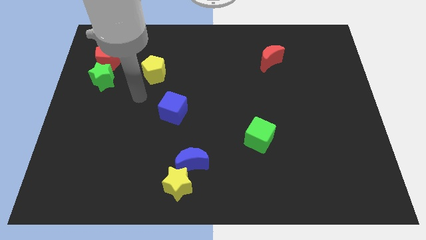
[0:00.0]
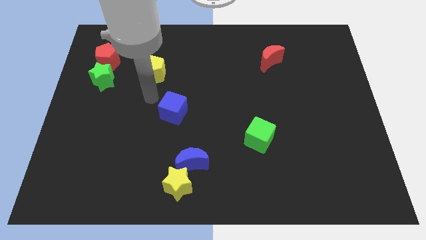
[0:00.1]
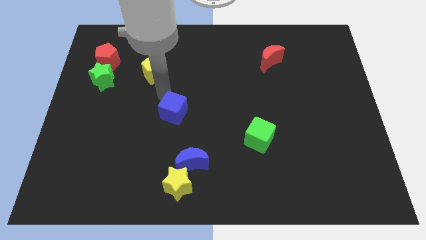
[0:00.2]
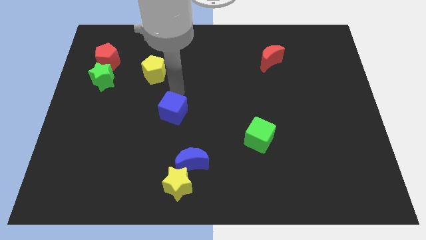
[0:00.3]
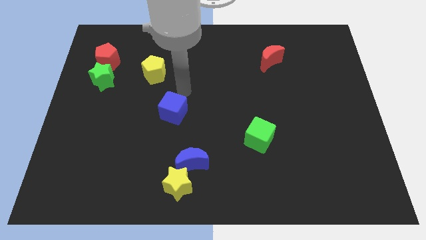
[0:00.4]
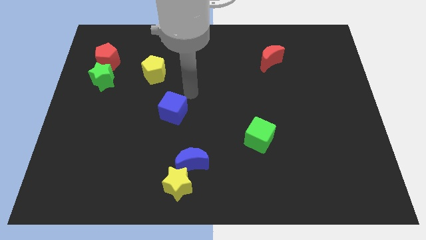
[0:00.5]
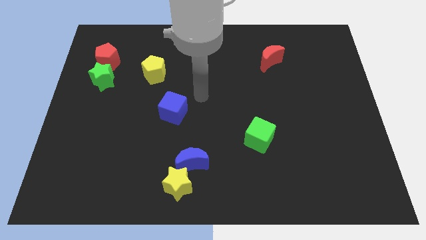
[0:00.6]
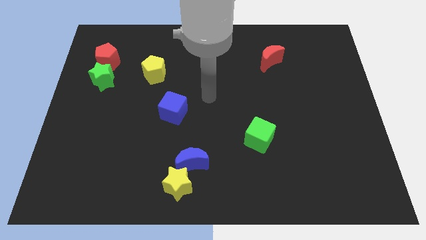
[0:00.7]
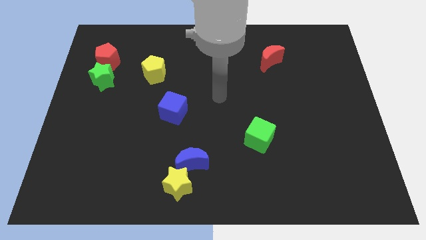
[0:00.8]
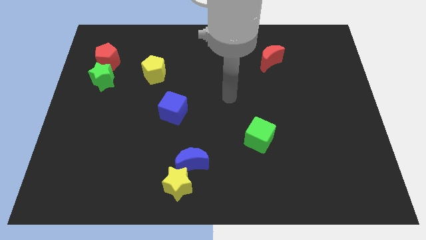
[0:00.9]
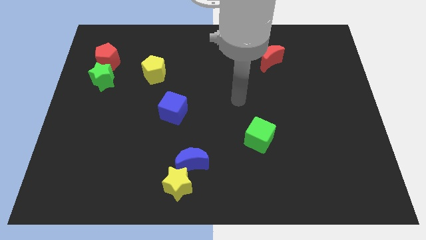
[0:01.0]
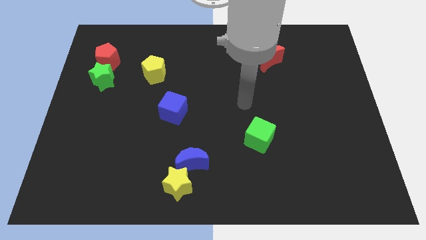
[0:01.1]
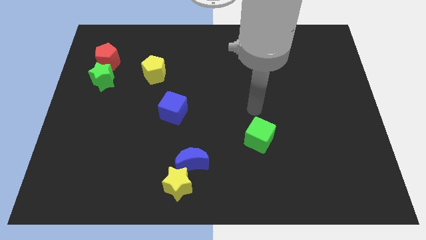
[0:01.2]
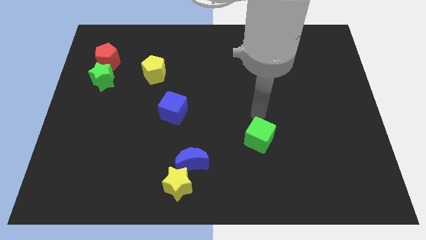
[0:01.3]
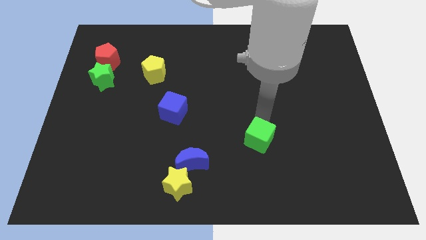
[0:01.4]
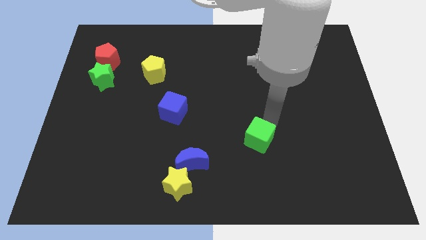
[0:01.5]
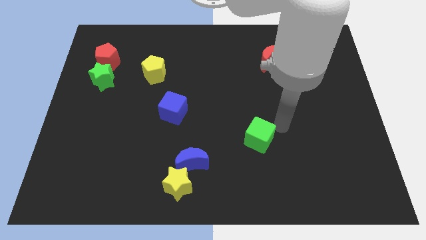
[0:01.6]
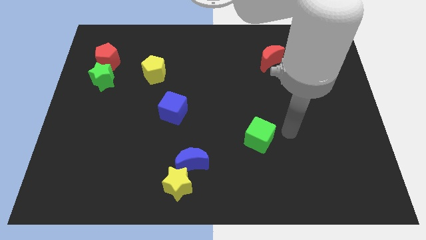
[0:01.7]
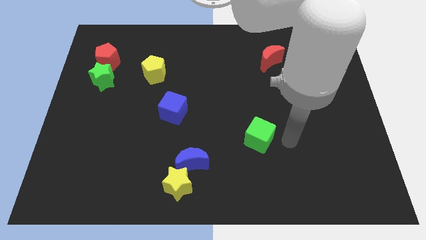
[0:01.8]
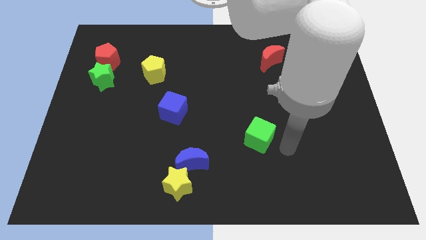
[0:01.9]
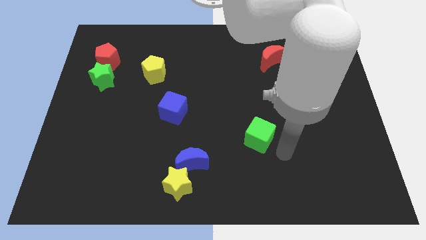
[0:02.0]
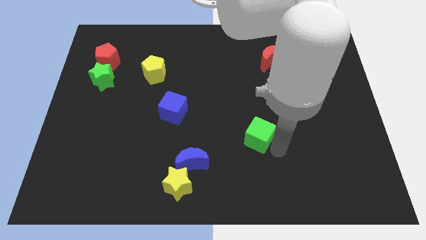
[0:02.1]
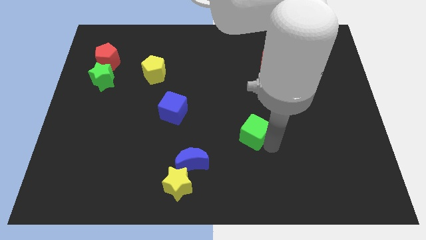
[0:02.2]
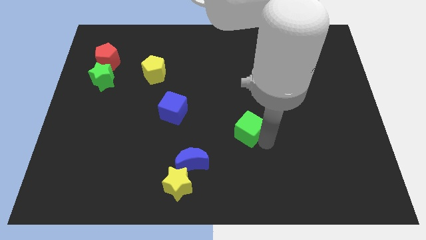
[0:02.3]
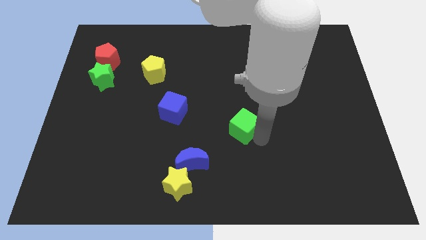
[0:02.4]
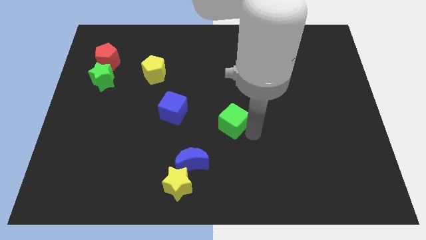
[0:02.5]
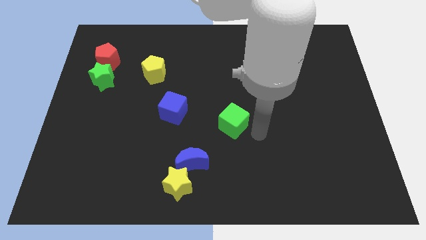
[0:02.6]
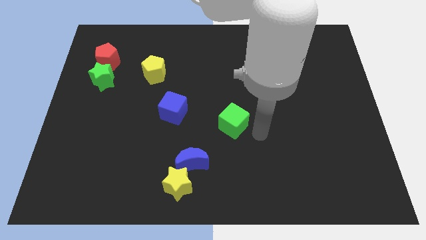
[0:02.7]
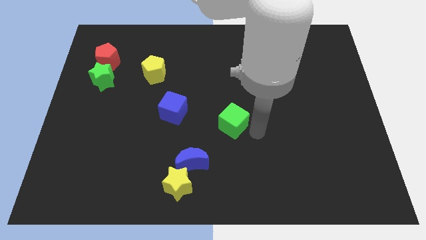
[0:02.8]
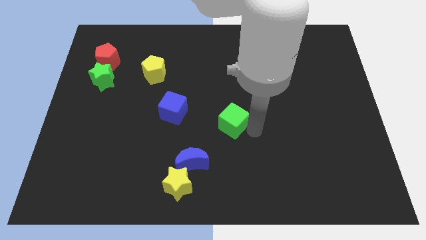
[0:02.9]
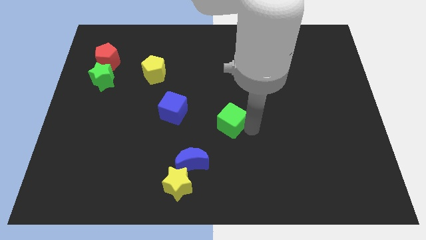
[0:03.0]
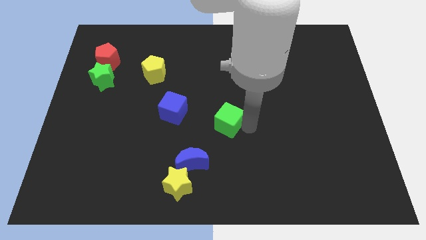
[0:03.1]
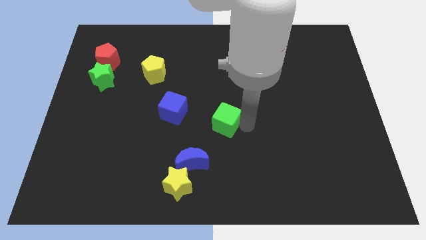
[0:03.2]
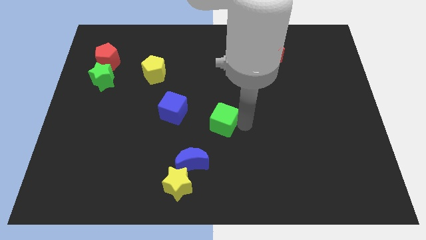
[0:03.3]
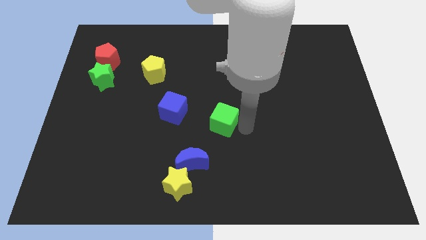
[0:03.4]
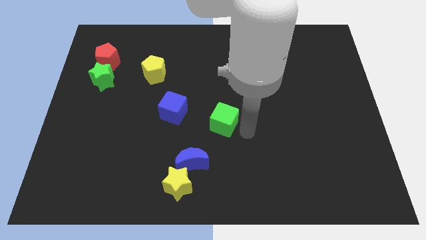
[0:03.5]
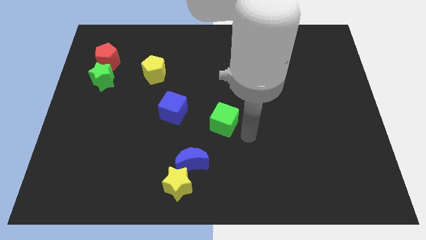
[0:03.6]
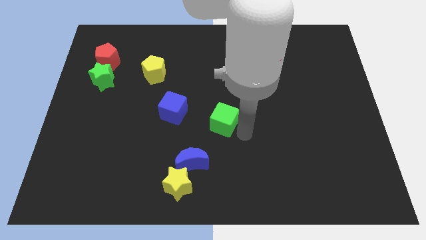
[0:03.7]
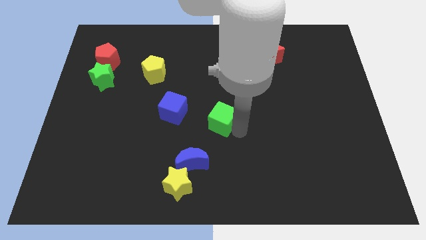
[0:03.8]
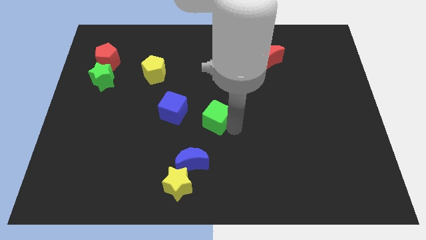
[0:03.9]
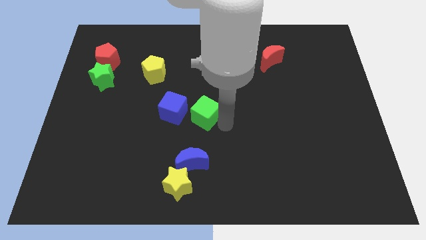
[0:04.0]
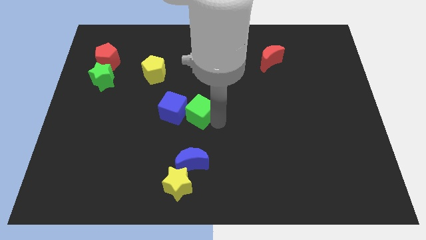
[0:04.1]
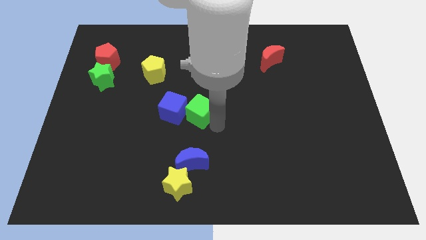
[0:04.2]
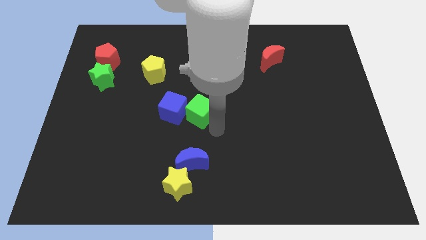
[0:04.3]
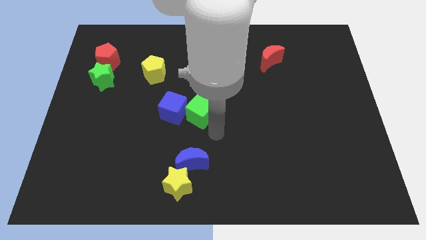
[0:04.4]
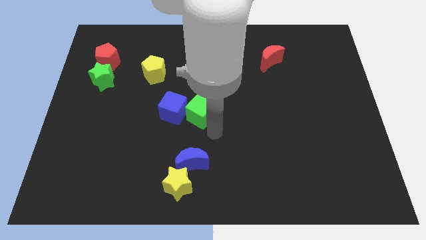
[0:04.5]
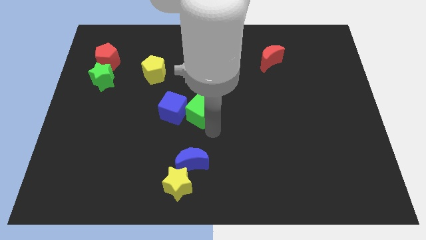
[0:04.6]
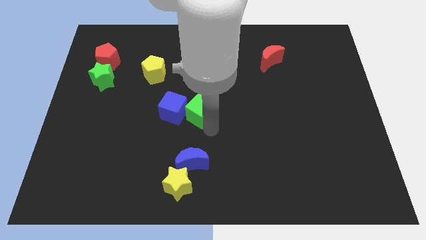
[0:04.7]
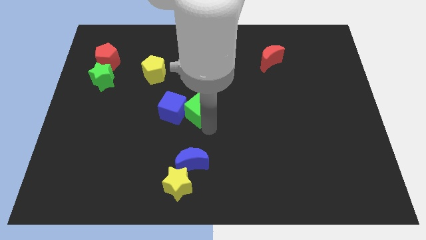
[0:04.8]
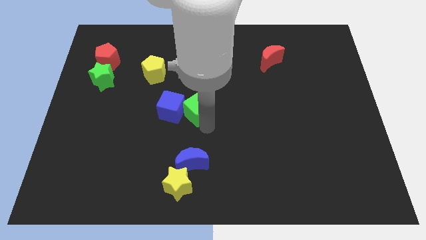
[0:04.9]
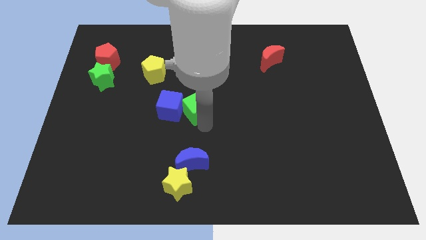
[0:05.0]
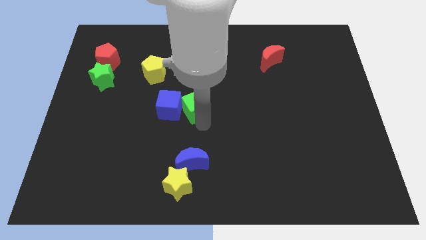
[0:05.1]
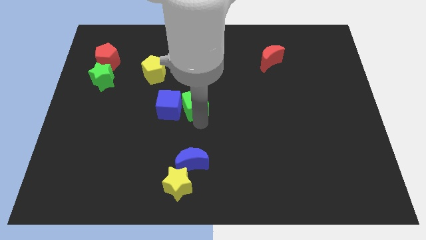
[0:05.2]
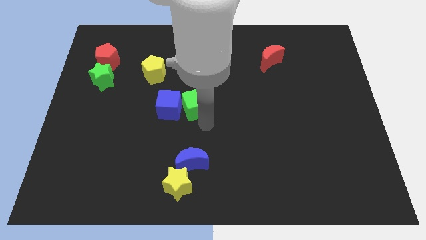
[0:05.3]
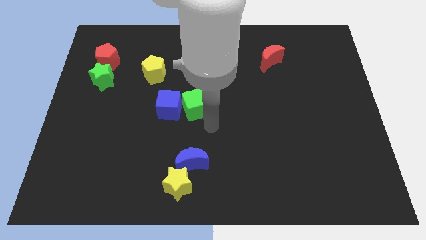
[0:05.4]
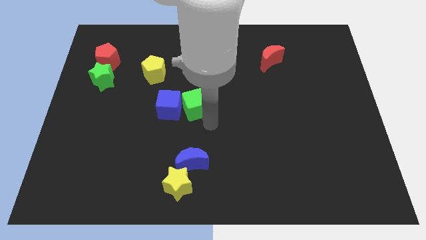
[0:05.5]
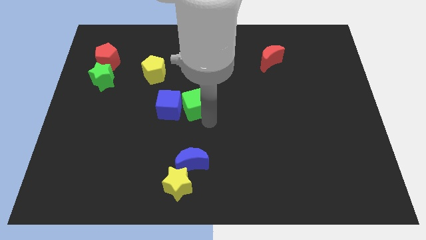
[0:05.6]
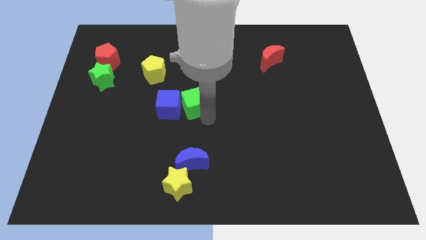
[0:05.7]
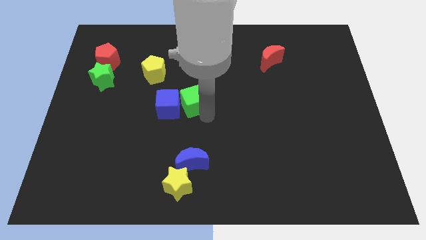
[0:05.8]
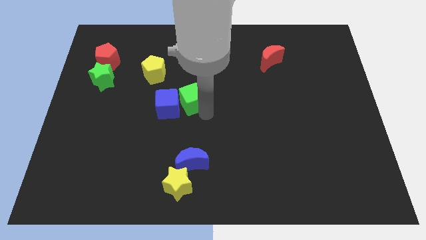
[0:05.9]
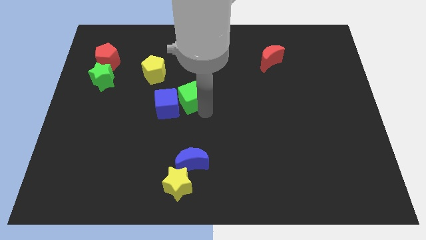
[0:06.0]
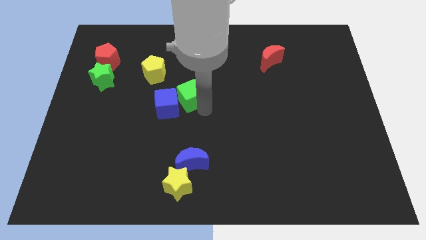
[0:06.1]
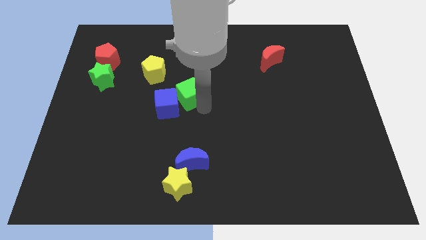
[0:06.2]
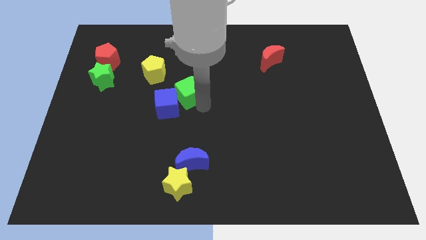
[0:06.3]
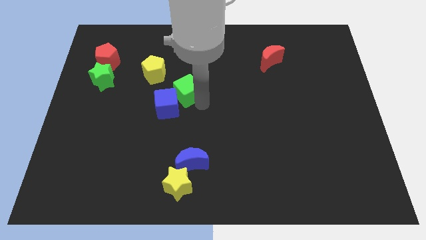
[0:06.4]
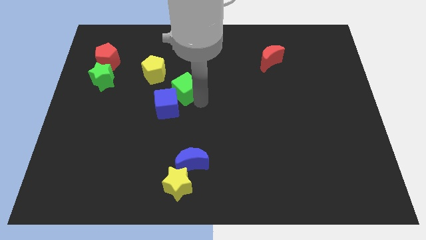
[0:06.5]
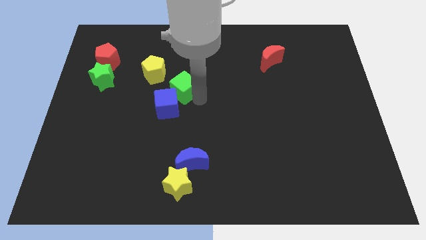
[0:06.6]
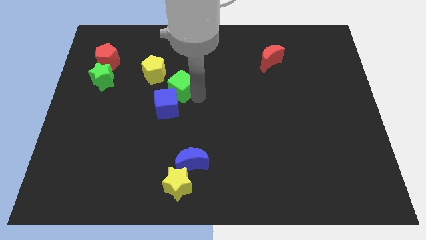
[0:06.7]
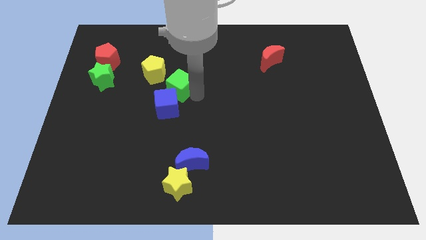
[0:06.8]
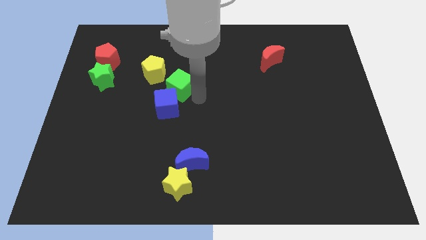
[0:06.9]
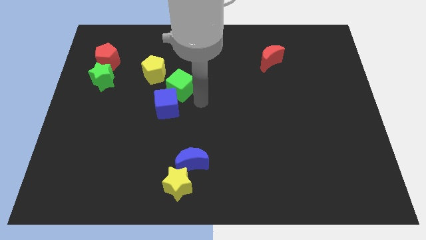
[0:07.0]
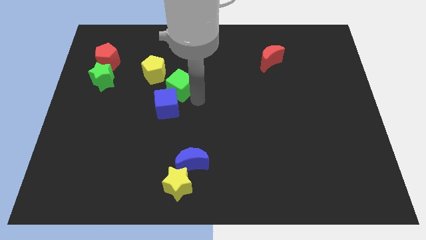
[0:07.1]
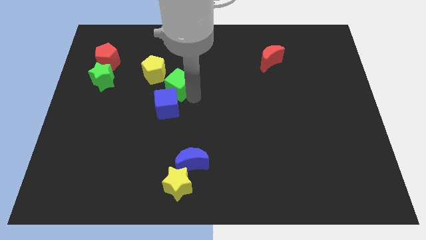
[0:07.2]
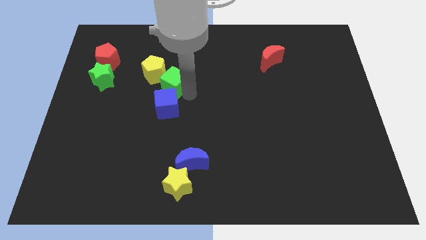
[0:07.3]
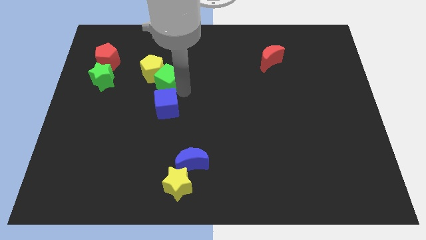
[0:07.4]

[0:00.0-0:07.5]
put the green cube close to the yellow pentagon

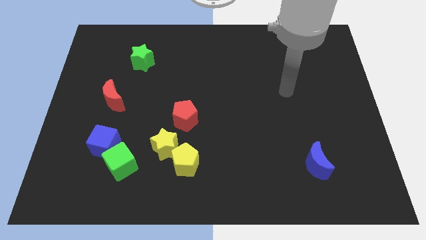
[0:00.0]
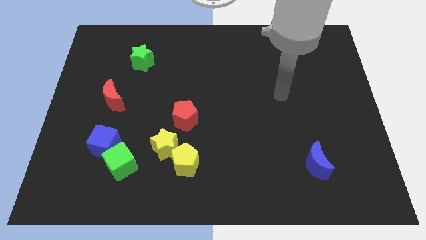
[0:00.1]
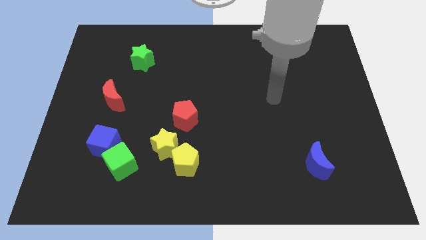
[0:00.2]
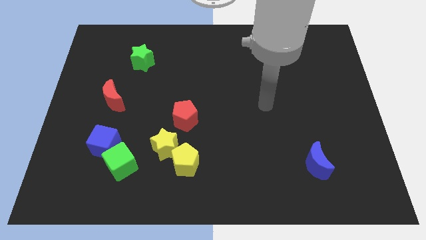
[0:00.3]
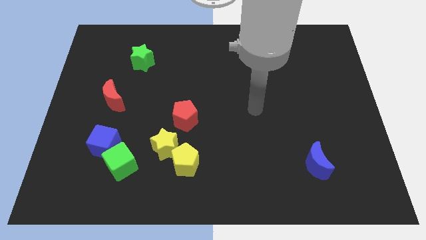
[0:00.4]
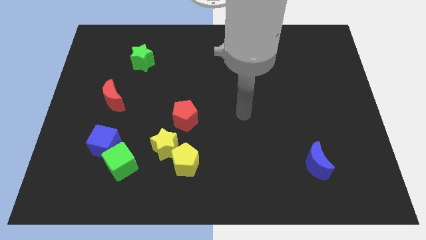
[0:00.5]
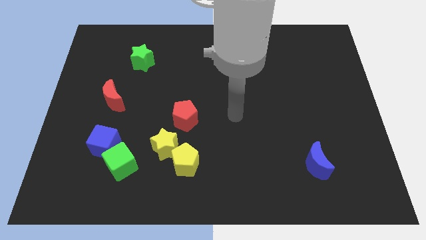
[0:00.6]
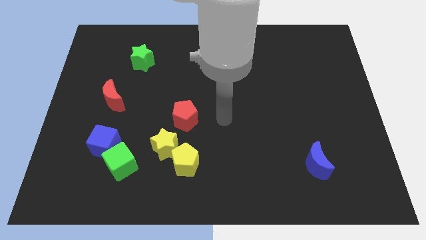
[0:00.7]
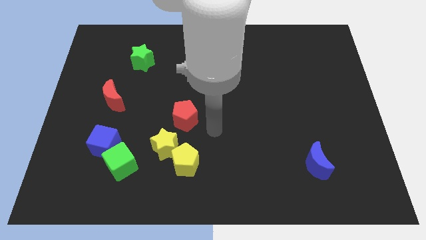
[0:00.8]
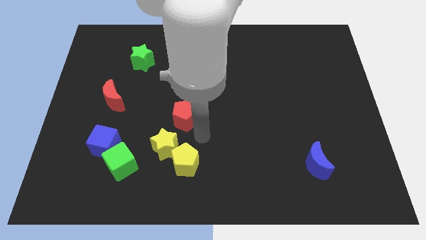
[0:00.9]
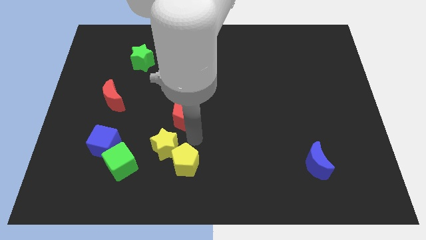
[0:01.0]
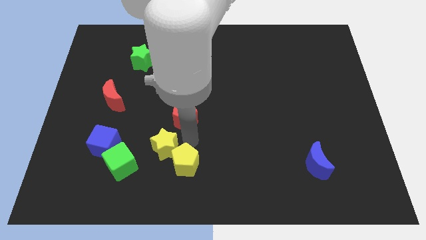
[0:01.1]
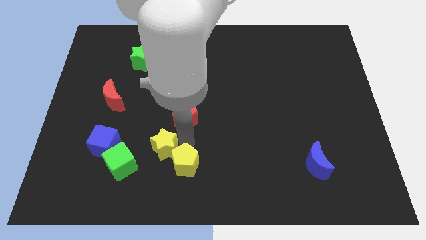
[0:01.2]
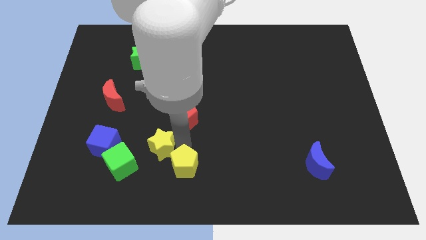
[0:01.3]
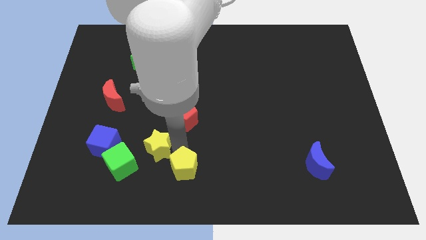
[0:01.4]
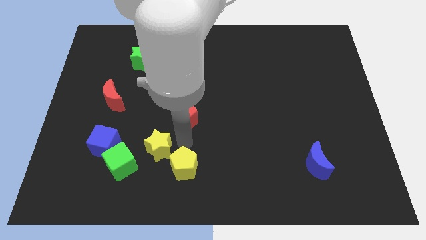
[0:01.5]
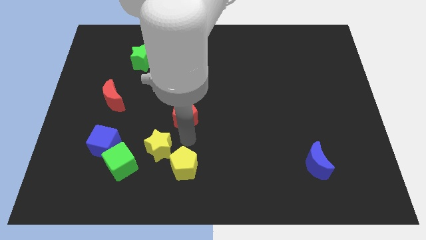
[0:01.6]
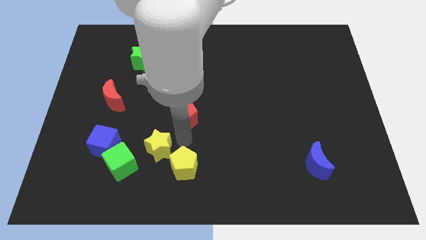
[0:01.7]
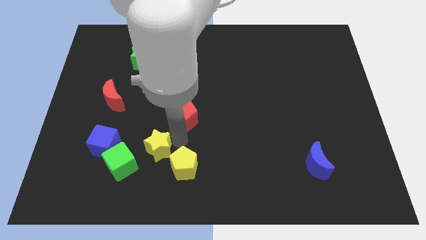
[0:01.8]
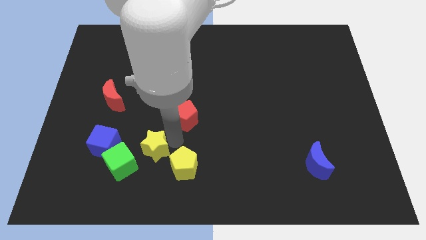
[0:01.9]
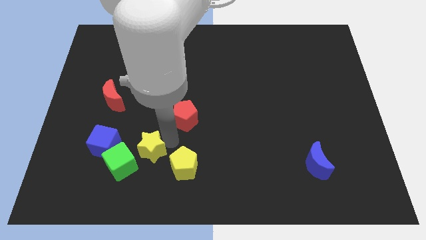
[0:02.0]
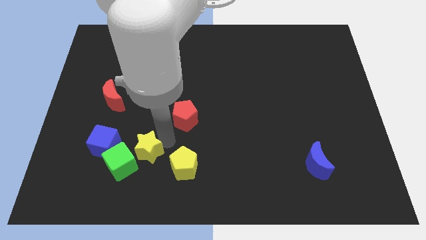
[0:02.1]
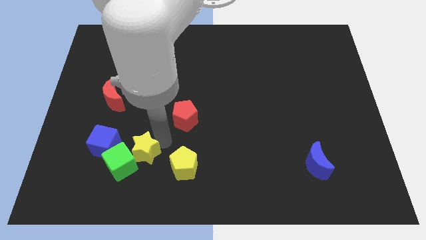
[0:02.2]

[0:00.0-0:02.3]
slide the yellow star next to the green cube
